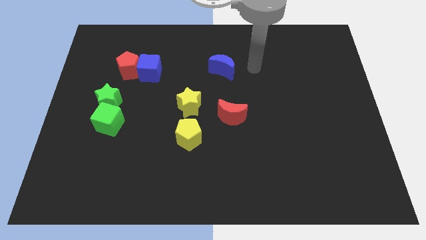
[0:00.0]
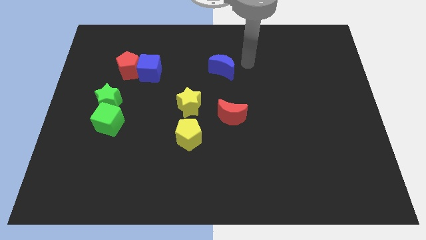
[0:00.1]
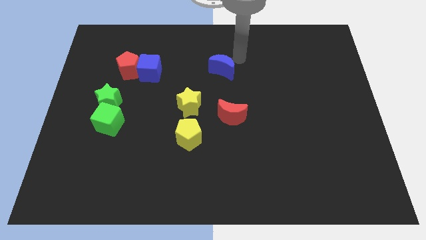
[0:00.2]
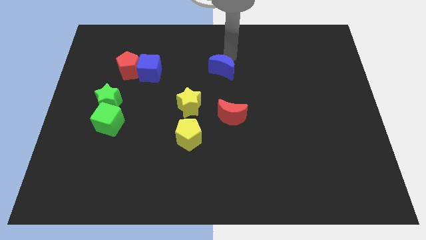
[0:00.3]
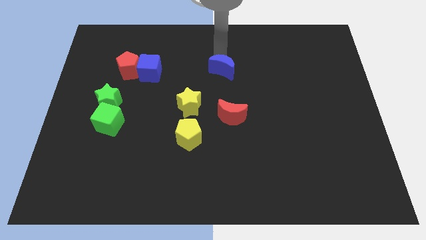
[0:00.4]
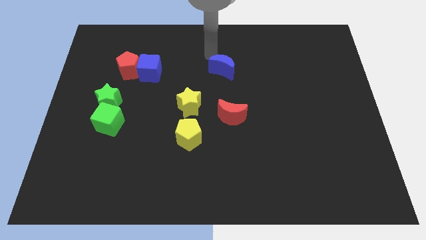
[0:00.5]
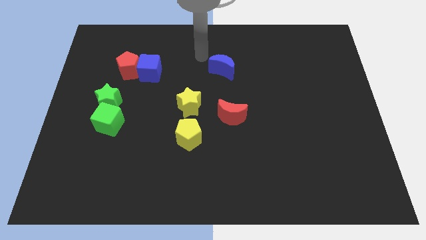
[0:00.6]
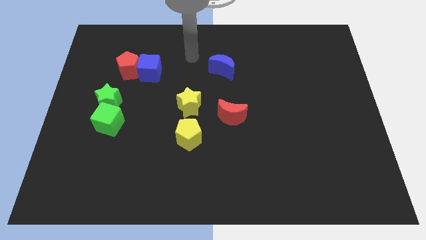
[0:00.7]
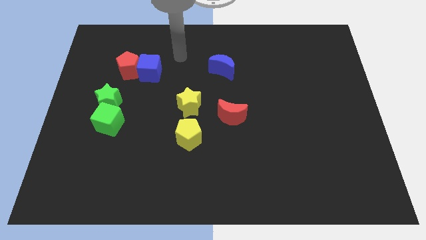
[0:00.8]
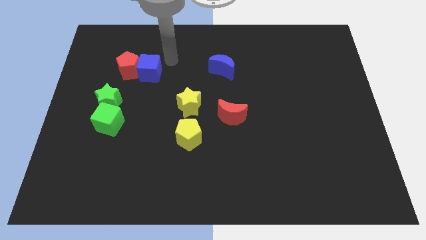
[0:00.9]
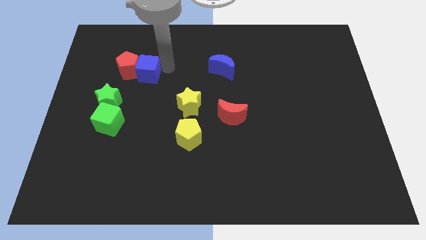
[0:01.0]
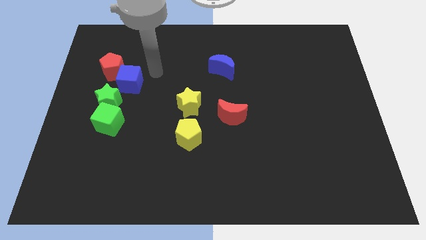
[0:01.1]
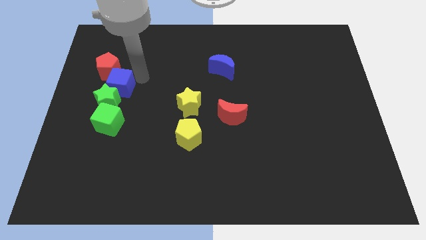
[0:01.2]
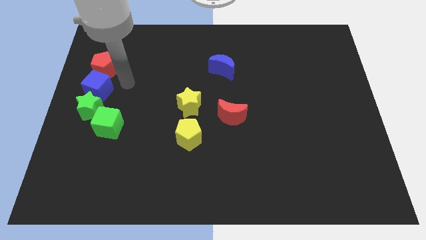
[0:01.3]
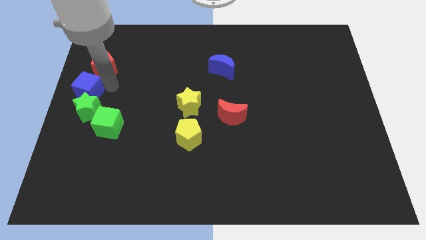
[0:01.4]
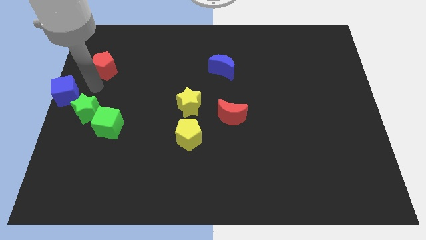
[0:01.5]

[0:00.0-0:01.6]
separate the red pentagon from the blue cube

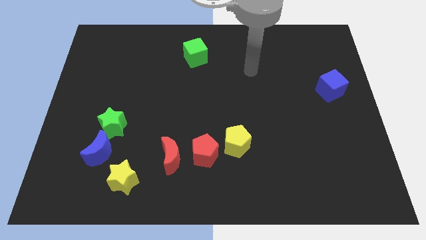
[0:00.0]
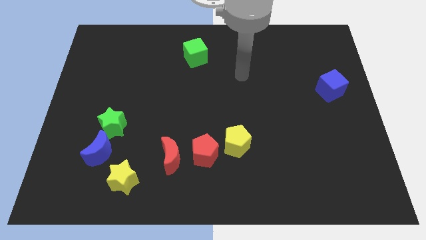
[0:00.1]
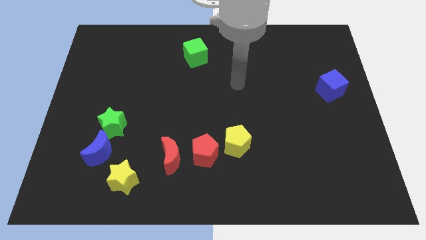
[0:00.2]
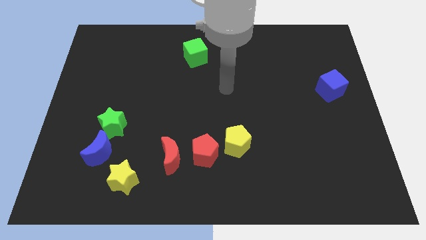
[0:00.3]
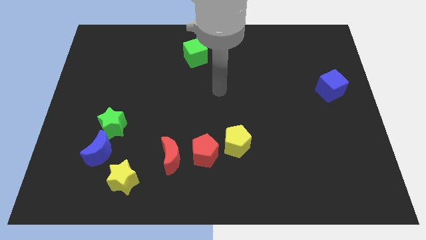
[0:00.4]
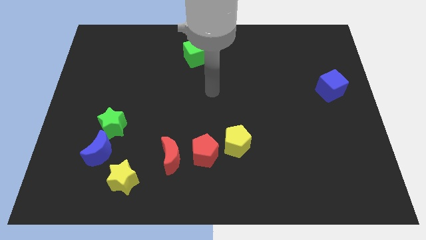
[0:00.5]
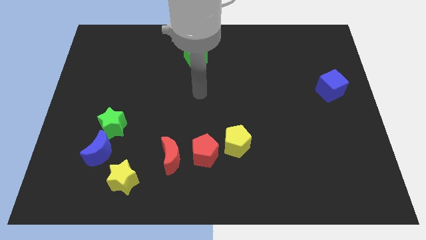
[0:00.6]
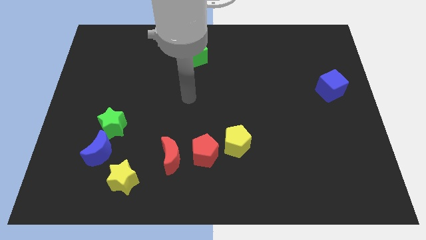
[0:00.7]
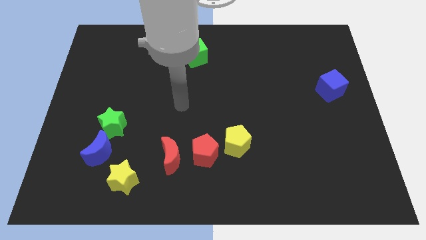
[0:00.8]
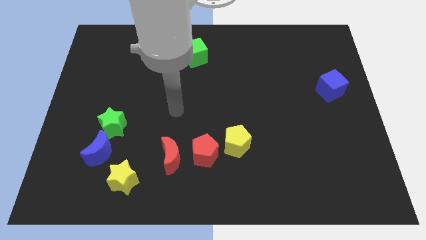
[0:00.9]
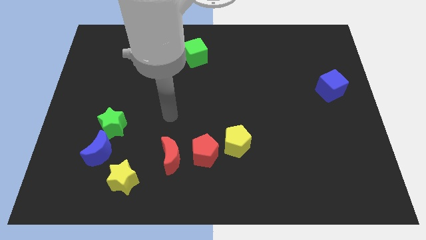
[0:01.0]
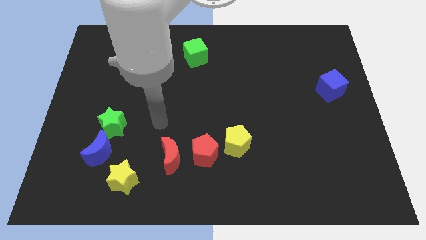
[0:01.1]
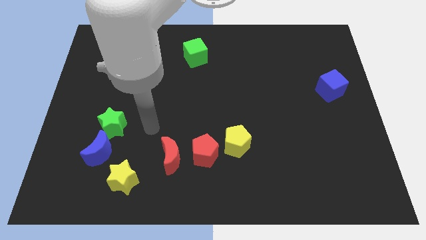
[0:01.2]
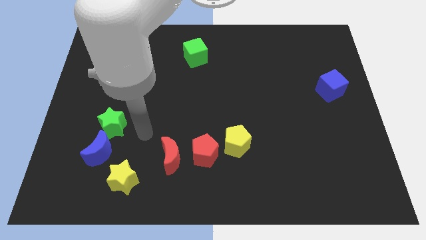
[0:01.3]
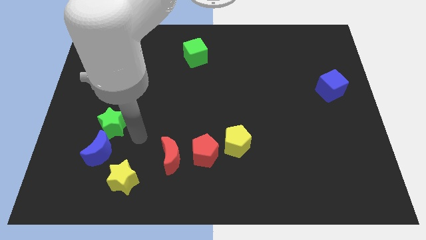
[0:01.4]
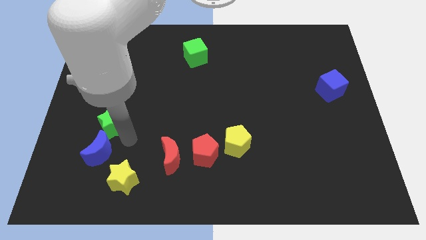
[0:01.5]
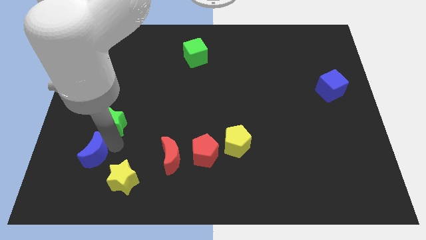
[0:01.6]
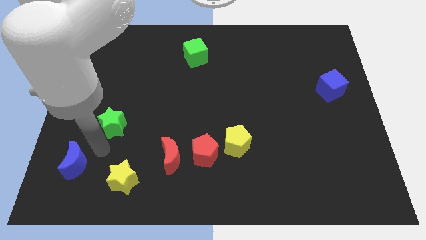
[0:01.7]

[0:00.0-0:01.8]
separate the green star from the blue moon

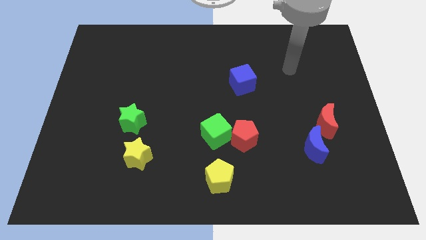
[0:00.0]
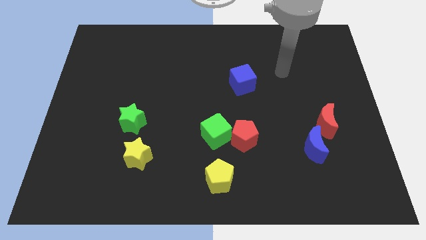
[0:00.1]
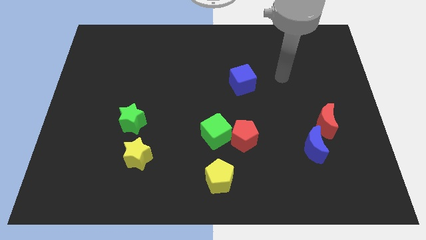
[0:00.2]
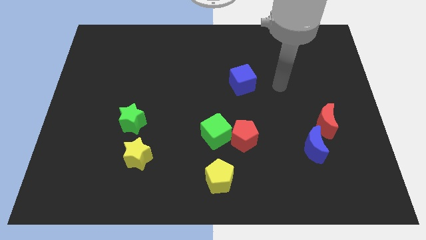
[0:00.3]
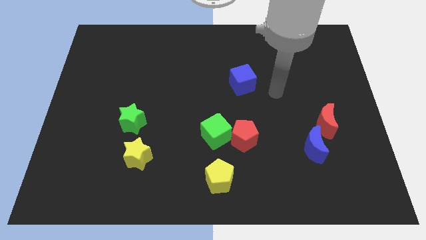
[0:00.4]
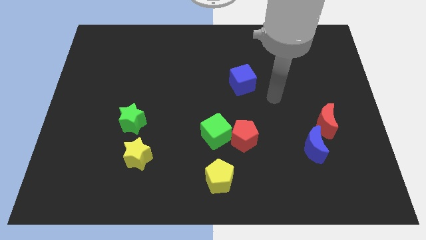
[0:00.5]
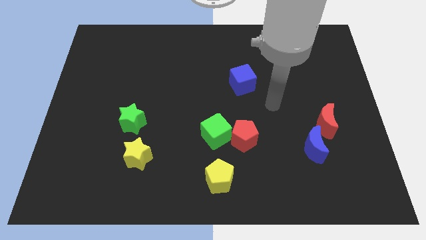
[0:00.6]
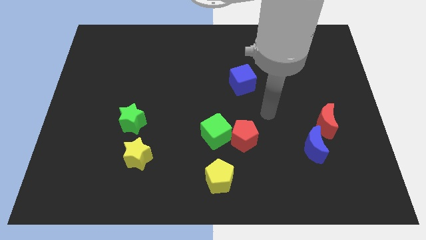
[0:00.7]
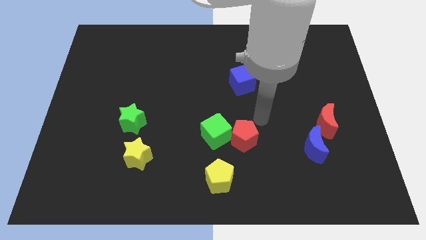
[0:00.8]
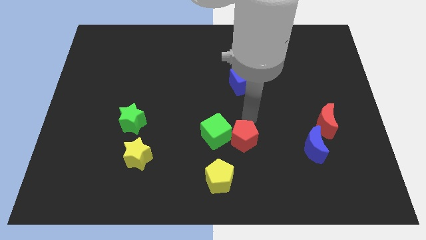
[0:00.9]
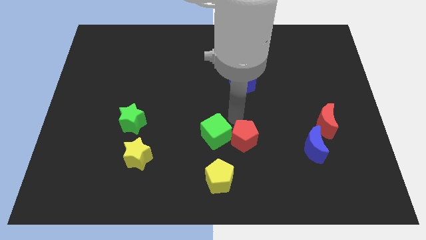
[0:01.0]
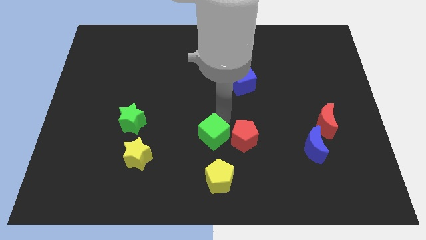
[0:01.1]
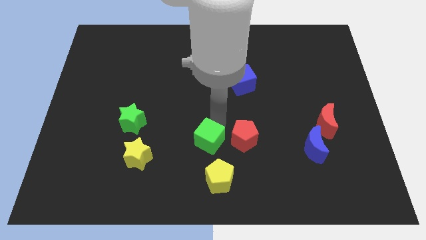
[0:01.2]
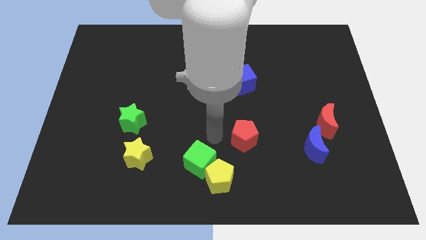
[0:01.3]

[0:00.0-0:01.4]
separate the red pentagon from the green cube

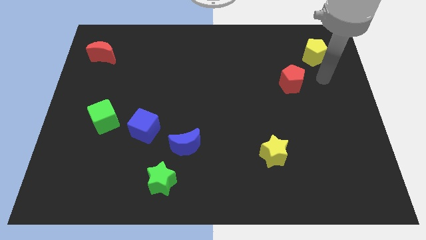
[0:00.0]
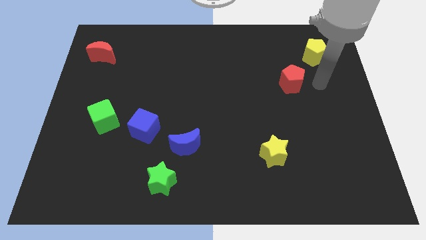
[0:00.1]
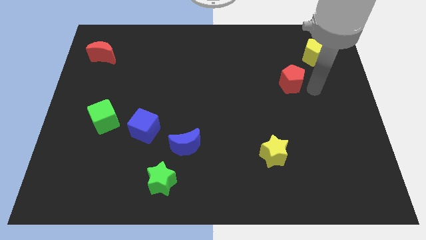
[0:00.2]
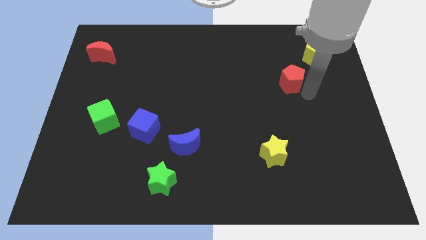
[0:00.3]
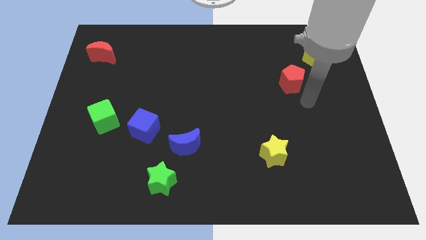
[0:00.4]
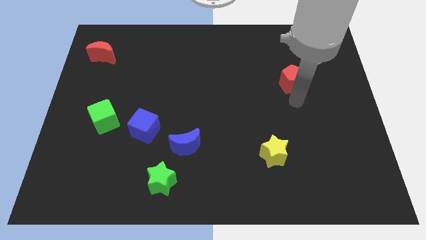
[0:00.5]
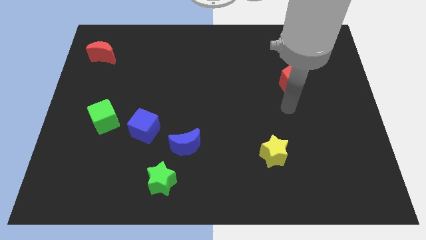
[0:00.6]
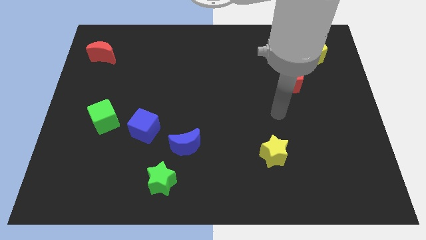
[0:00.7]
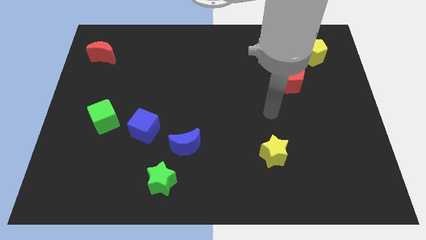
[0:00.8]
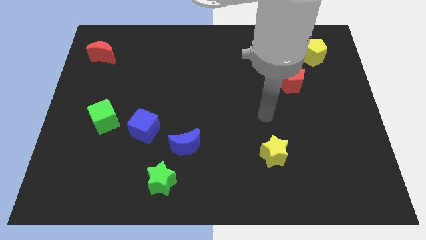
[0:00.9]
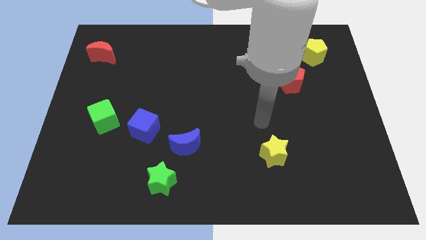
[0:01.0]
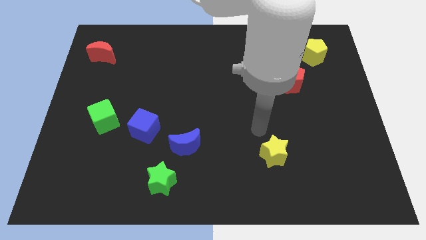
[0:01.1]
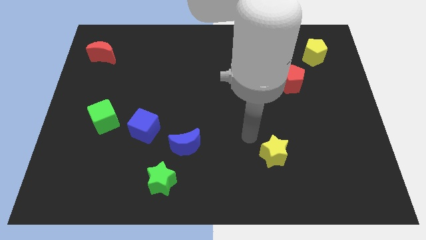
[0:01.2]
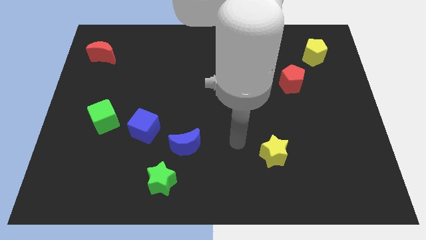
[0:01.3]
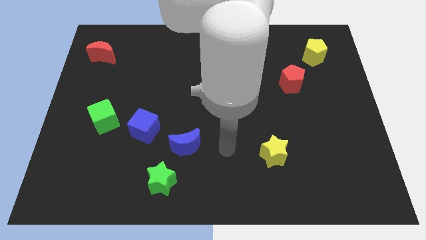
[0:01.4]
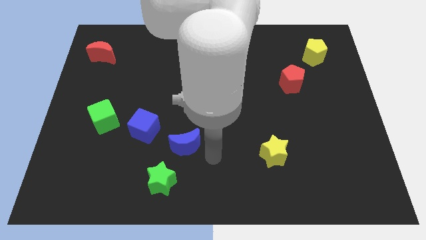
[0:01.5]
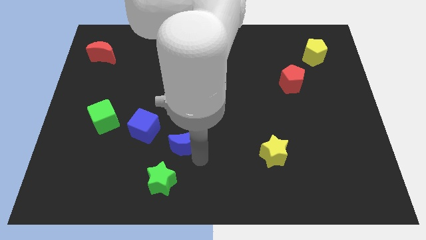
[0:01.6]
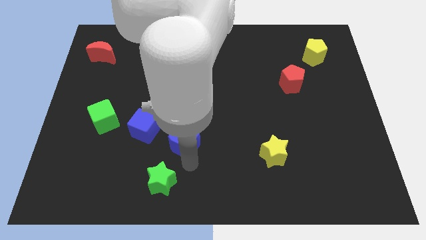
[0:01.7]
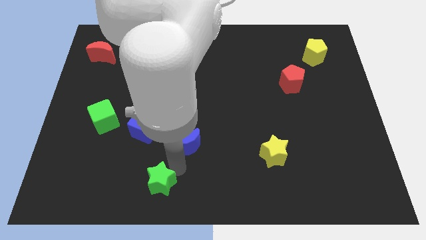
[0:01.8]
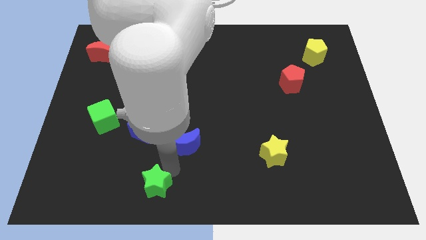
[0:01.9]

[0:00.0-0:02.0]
pull the blue moon apart from the green star

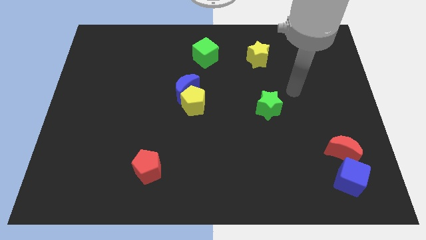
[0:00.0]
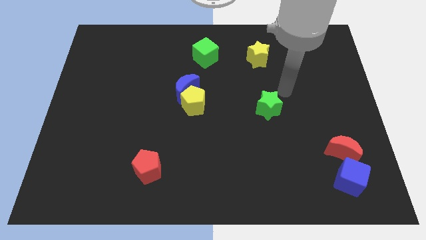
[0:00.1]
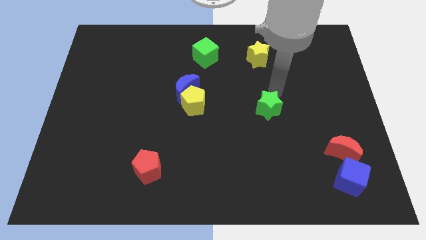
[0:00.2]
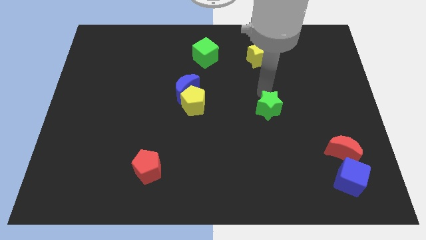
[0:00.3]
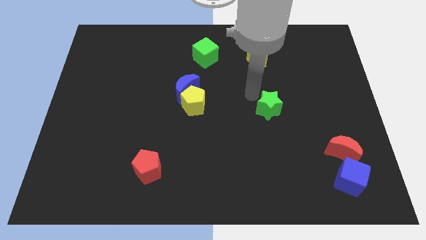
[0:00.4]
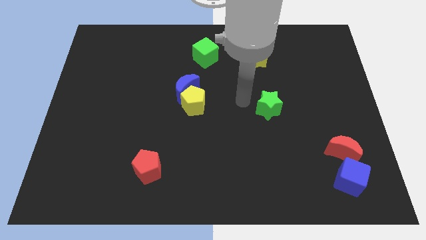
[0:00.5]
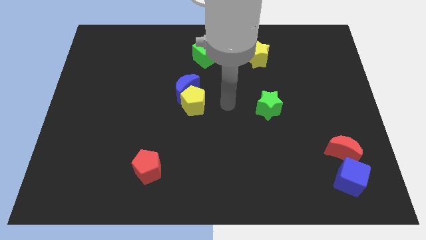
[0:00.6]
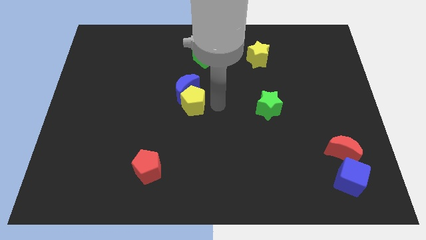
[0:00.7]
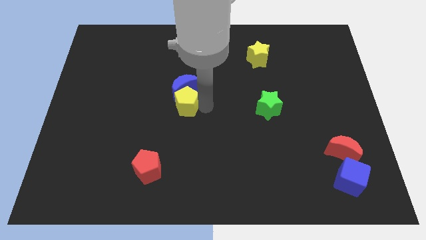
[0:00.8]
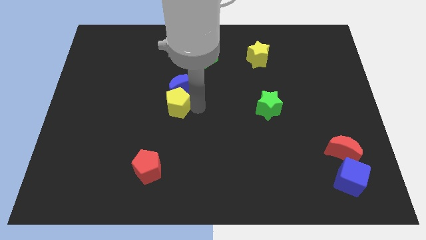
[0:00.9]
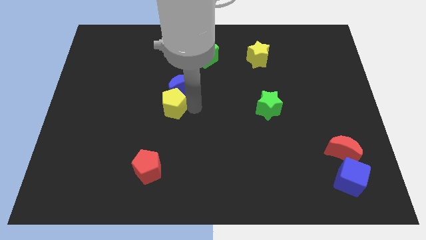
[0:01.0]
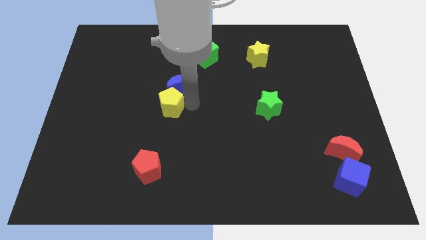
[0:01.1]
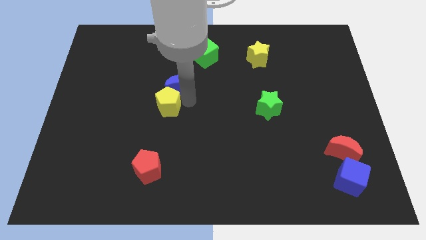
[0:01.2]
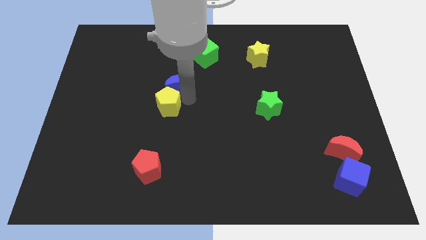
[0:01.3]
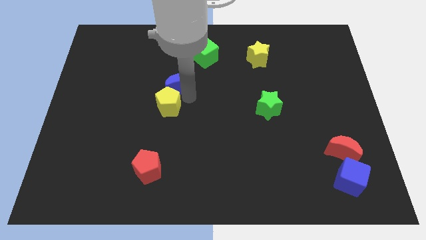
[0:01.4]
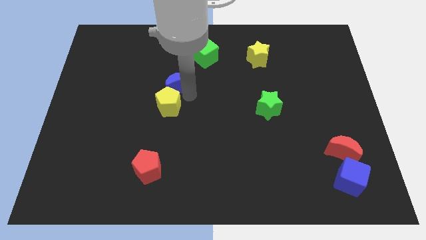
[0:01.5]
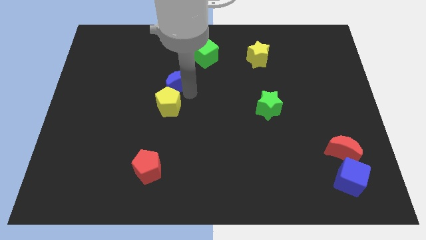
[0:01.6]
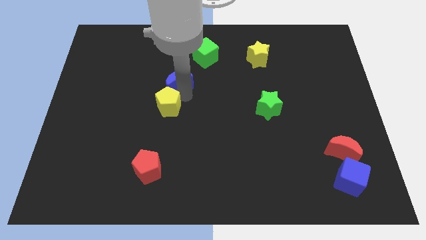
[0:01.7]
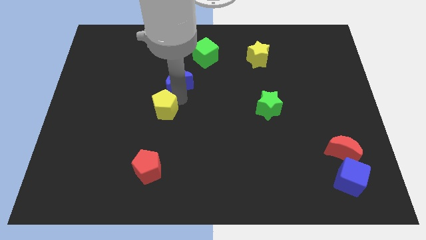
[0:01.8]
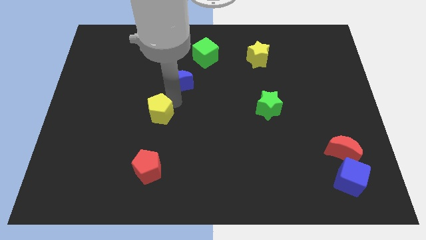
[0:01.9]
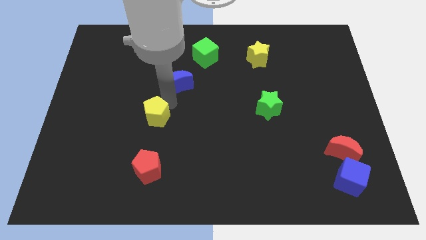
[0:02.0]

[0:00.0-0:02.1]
pull the blue moon apart from the yellow pentagon

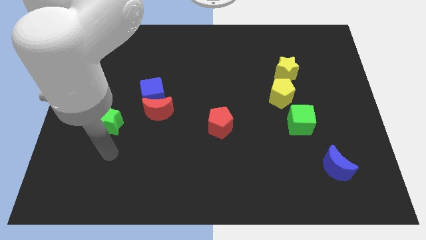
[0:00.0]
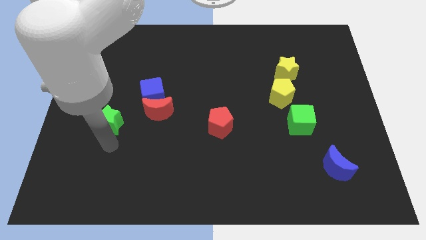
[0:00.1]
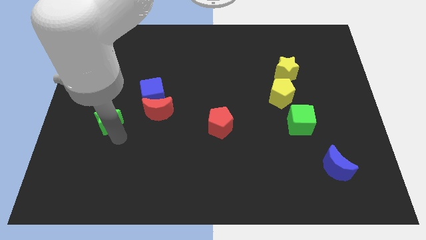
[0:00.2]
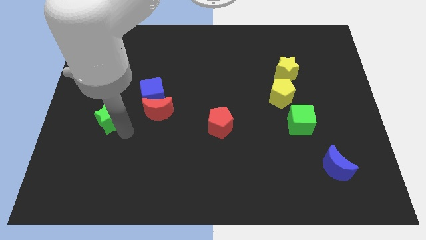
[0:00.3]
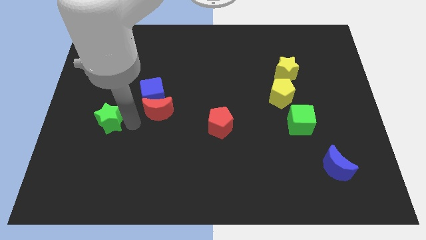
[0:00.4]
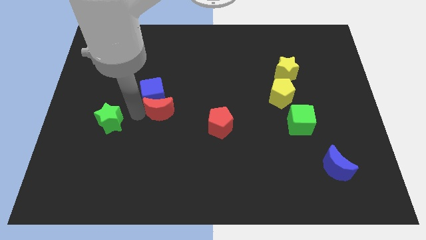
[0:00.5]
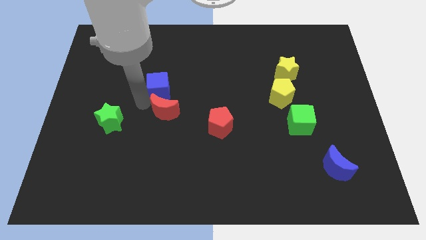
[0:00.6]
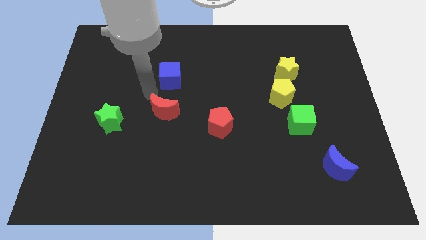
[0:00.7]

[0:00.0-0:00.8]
separate the red moon from the blue cube
